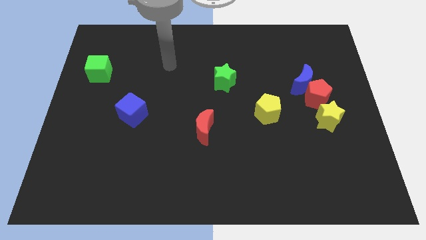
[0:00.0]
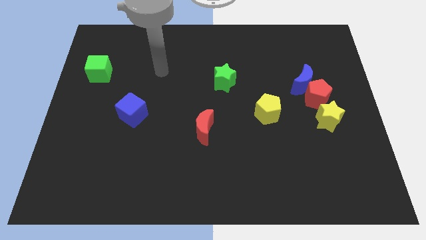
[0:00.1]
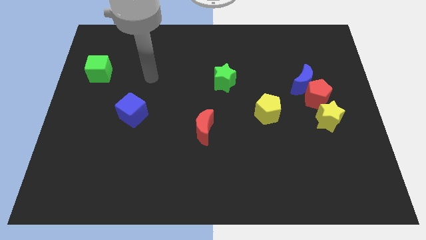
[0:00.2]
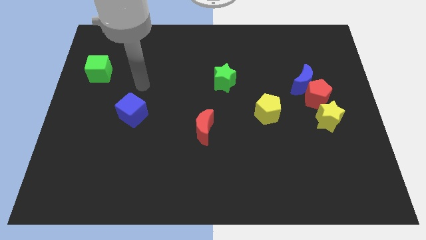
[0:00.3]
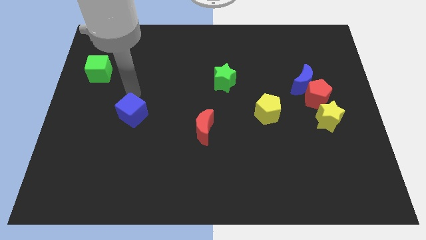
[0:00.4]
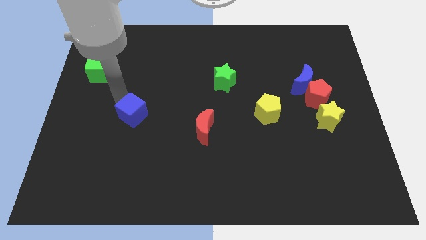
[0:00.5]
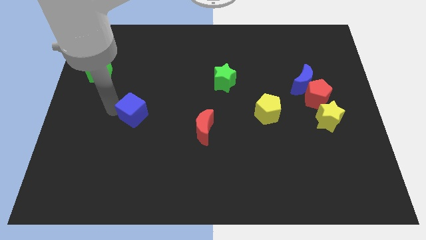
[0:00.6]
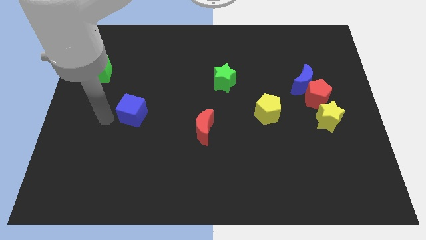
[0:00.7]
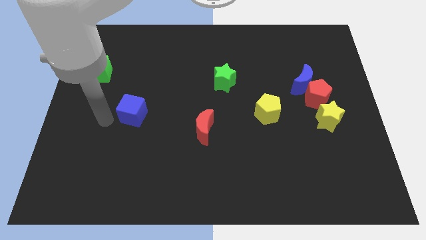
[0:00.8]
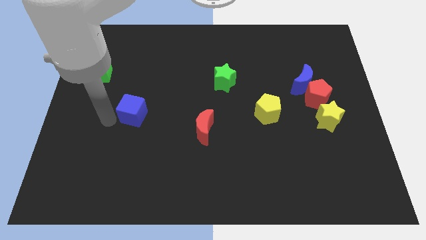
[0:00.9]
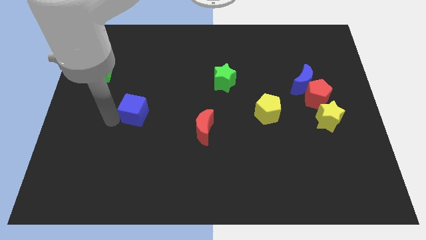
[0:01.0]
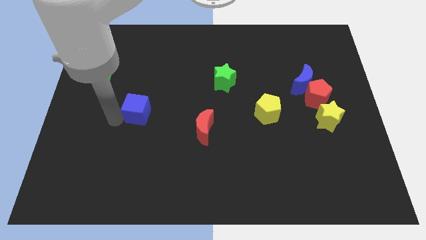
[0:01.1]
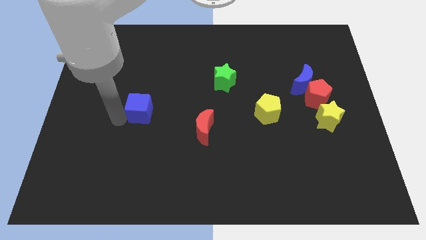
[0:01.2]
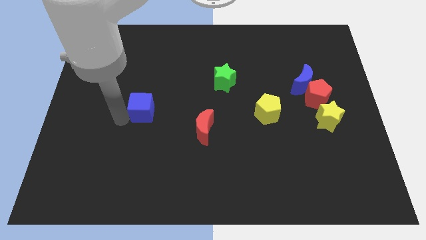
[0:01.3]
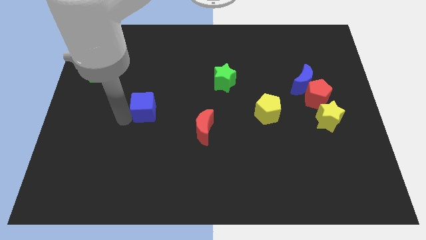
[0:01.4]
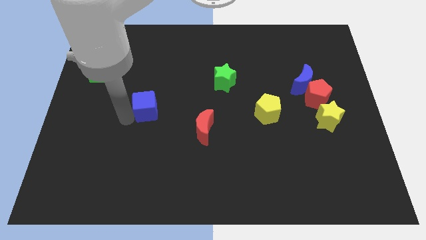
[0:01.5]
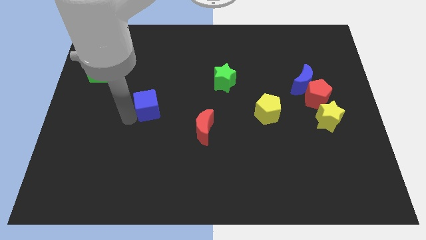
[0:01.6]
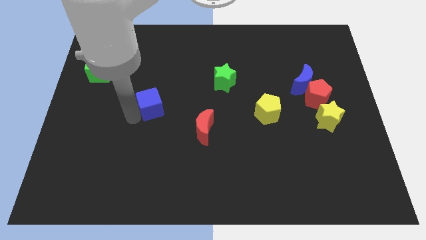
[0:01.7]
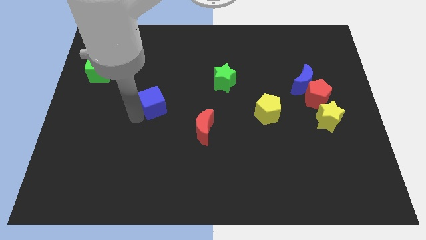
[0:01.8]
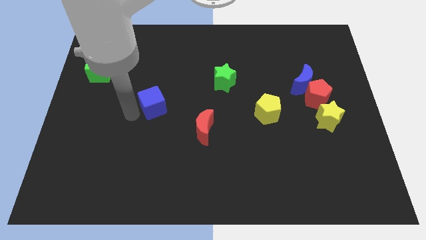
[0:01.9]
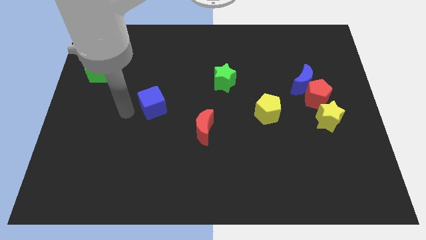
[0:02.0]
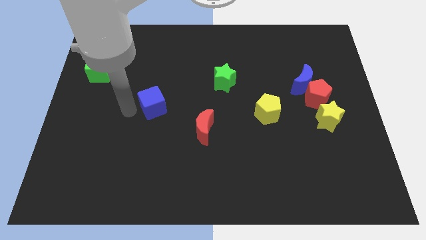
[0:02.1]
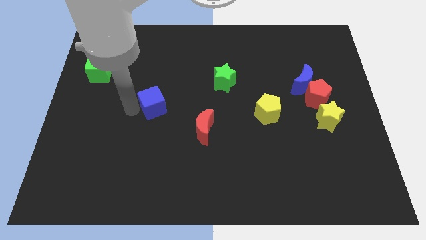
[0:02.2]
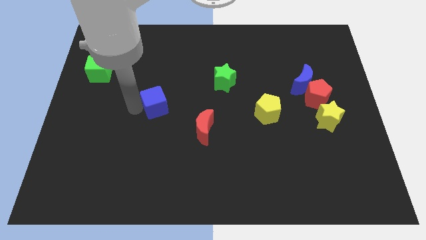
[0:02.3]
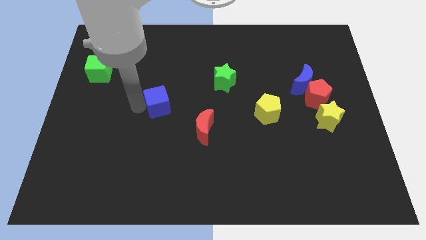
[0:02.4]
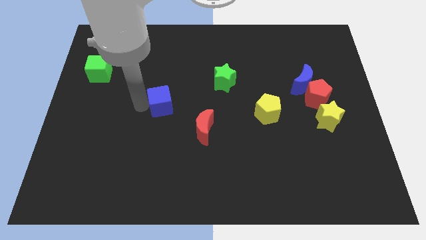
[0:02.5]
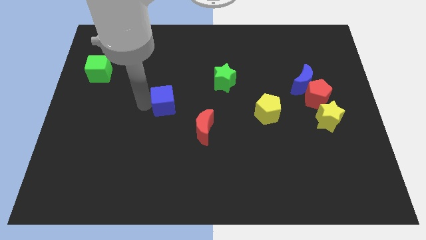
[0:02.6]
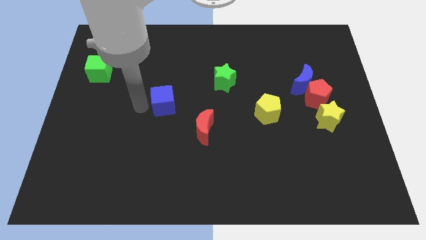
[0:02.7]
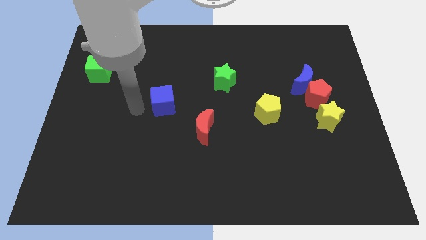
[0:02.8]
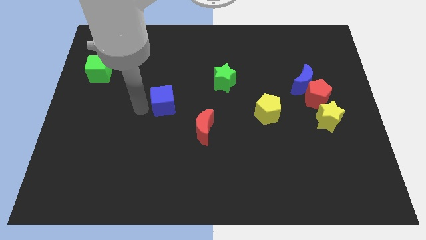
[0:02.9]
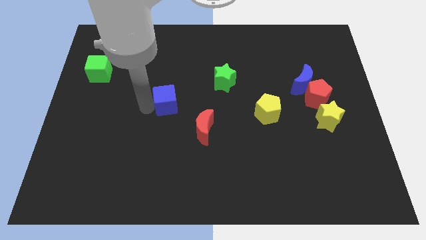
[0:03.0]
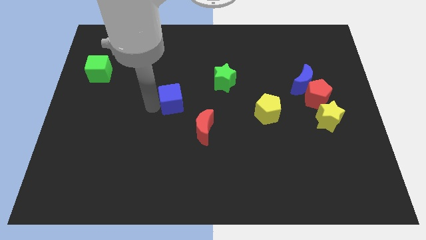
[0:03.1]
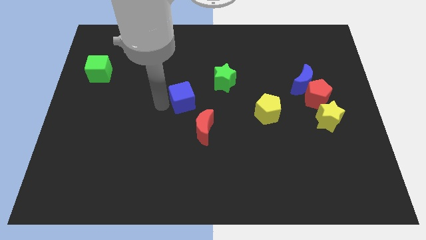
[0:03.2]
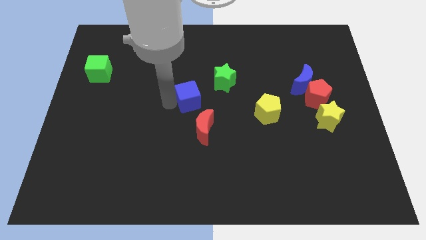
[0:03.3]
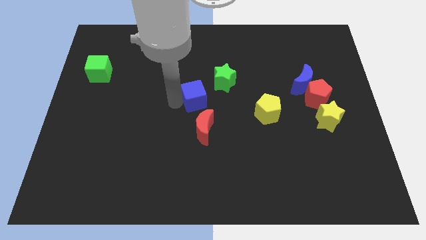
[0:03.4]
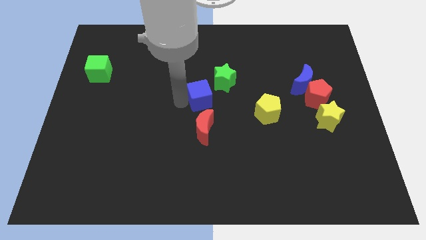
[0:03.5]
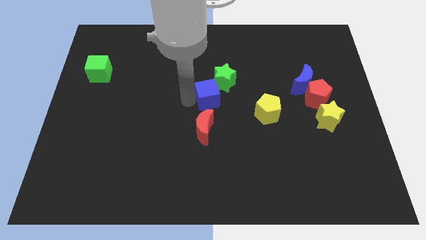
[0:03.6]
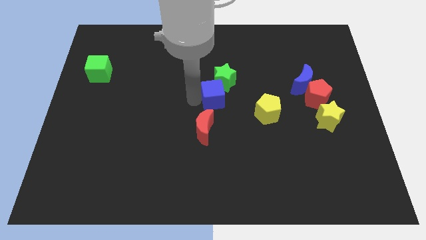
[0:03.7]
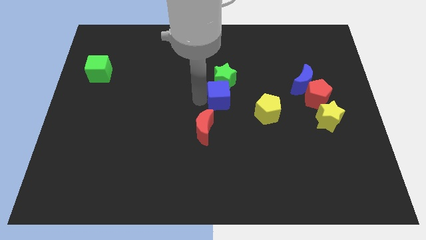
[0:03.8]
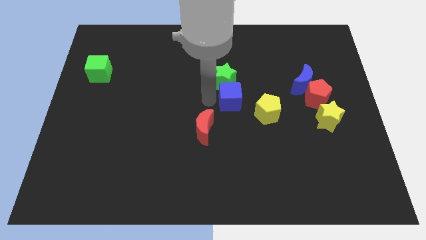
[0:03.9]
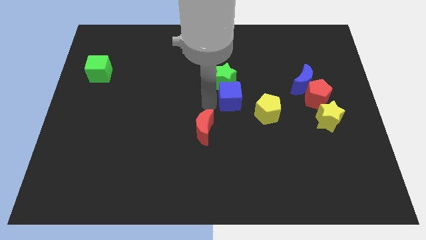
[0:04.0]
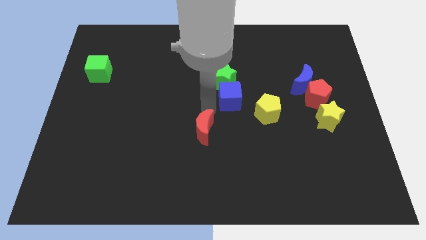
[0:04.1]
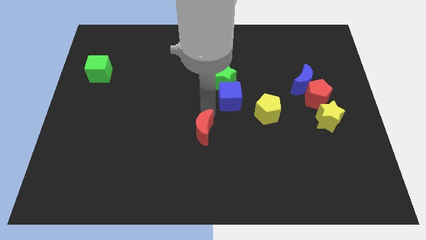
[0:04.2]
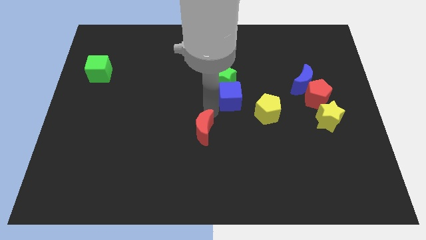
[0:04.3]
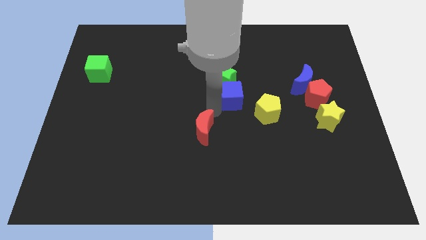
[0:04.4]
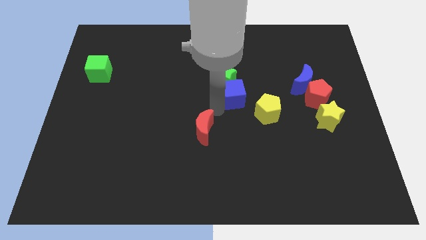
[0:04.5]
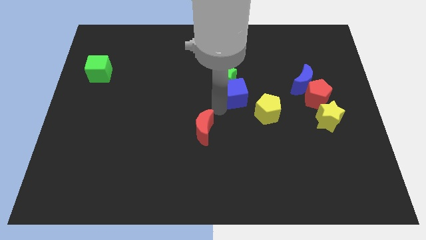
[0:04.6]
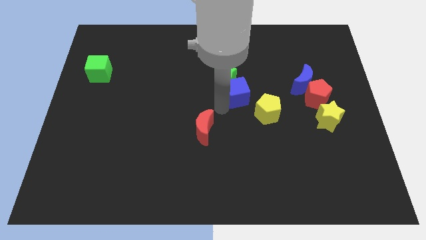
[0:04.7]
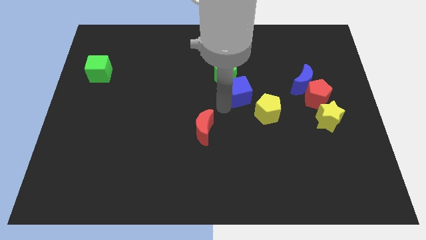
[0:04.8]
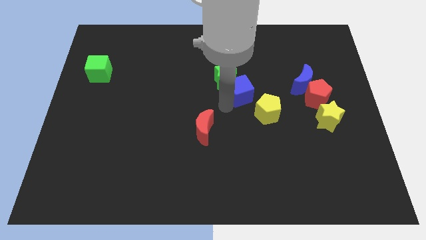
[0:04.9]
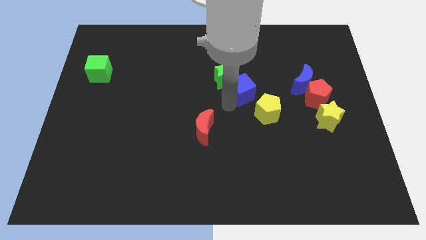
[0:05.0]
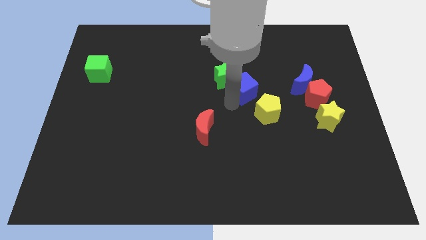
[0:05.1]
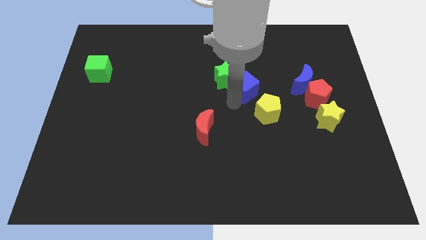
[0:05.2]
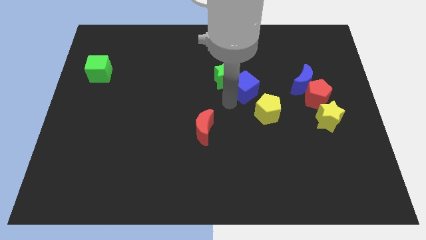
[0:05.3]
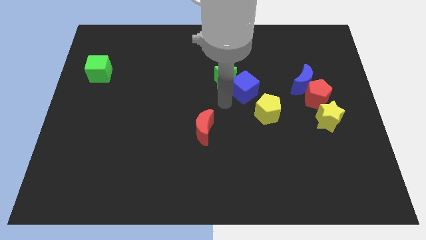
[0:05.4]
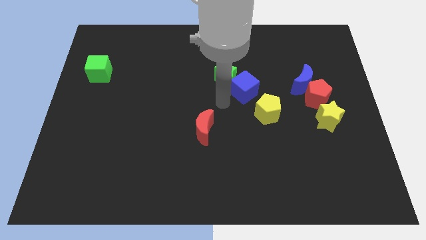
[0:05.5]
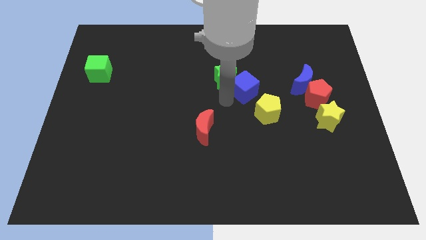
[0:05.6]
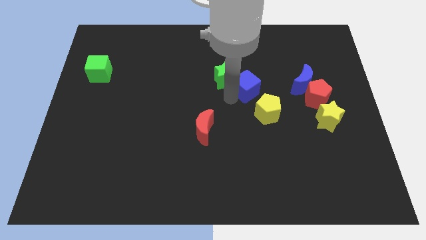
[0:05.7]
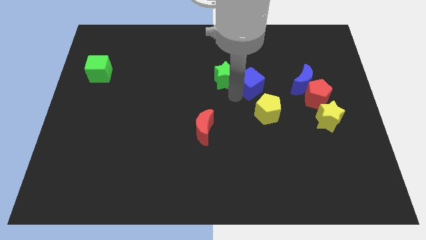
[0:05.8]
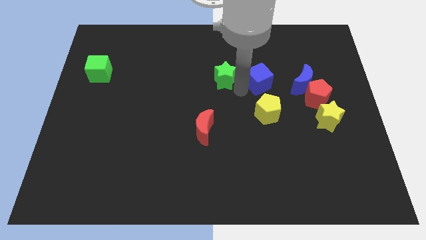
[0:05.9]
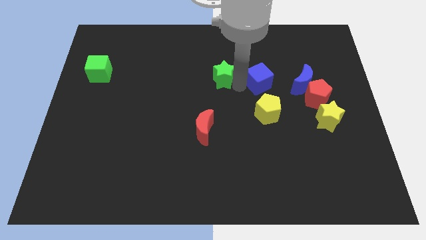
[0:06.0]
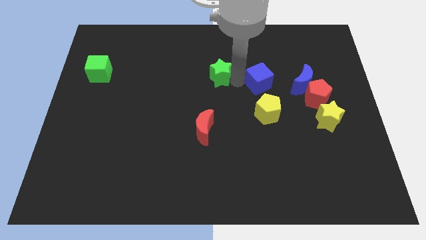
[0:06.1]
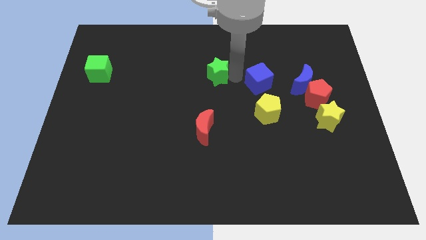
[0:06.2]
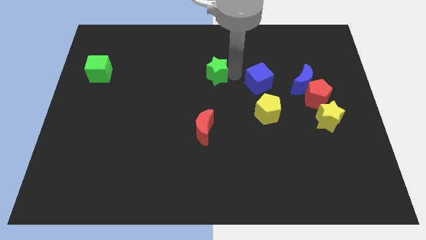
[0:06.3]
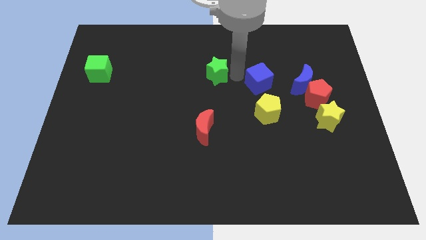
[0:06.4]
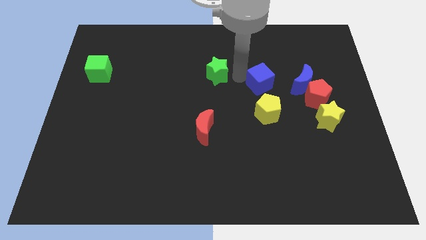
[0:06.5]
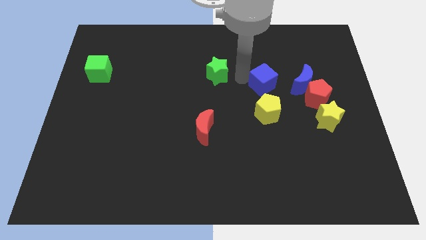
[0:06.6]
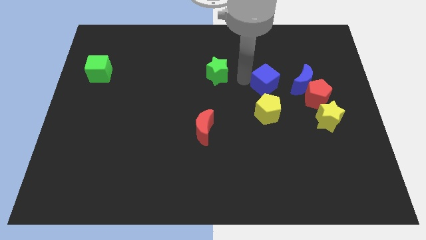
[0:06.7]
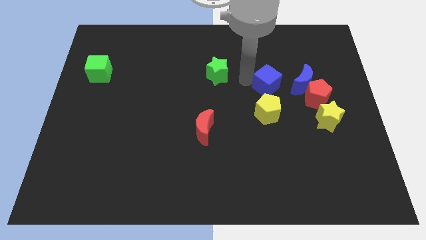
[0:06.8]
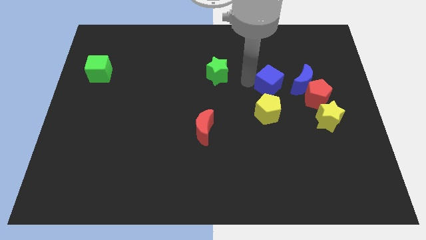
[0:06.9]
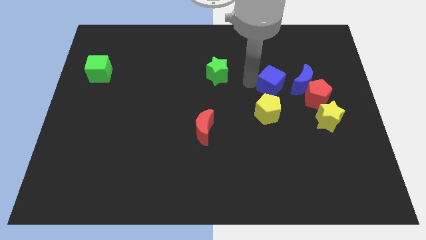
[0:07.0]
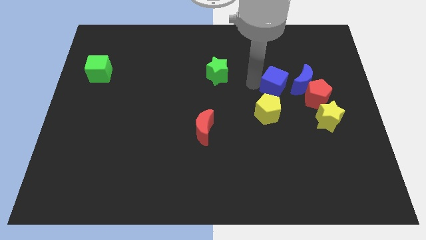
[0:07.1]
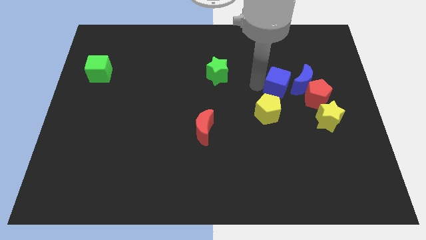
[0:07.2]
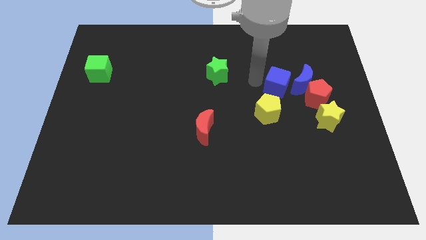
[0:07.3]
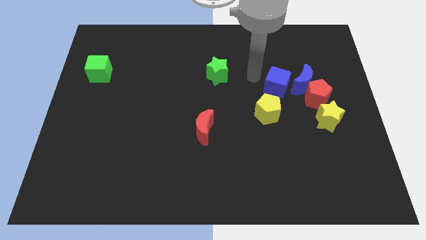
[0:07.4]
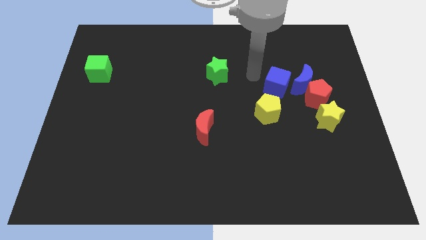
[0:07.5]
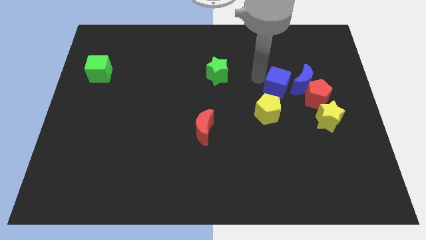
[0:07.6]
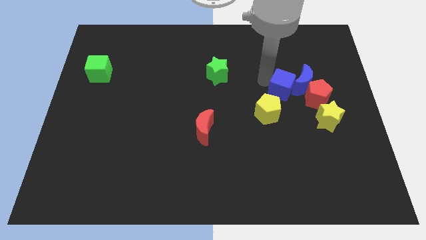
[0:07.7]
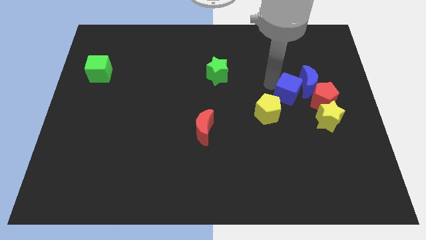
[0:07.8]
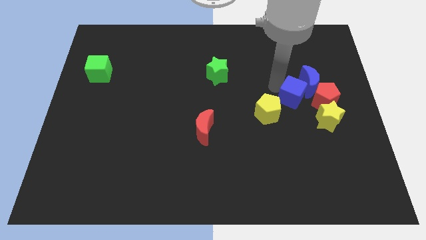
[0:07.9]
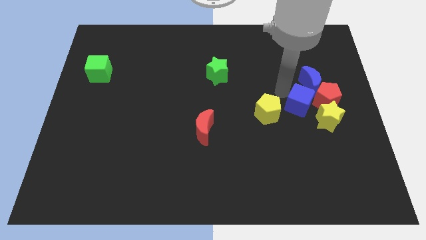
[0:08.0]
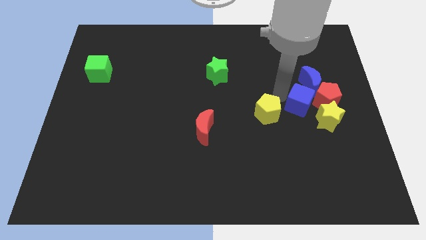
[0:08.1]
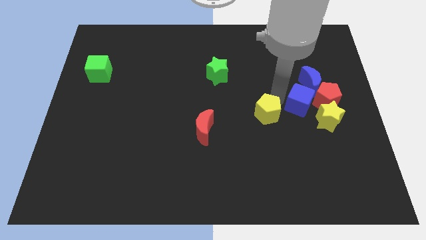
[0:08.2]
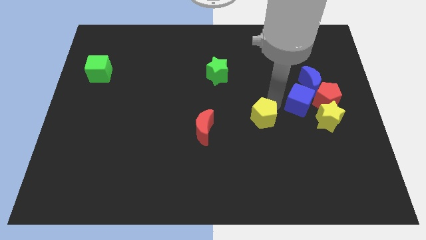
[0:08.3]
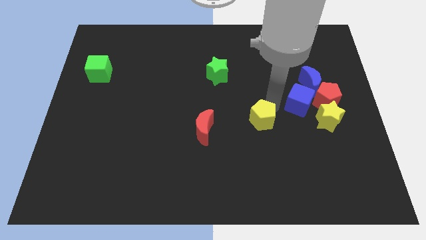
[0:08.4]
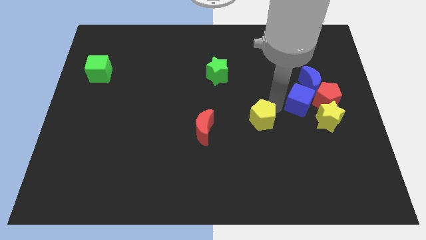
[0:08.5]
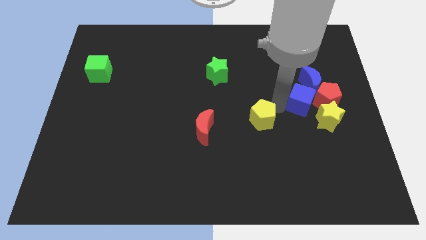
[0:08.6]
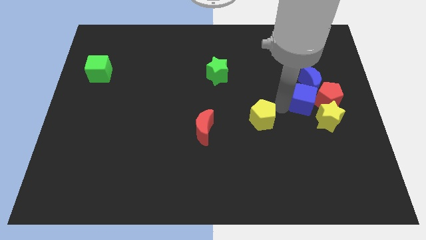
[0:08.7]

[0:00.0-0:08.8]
slide the blue cube next to the red pentagon
